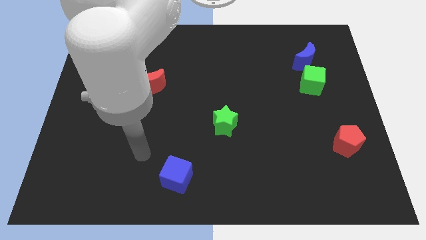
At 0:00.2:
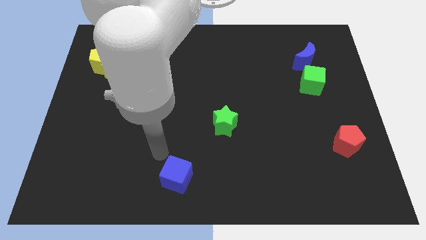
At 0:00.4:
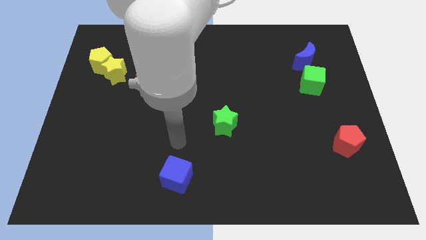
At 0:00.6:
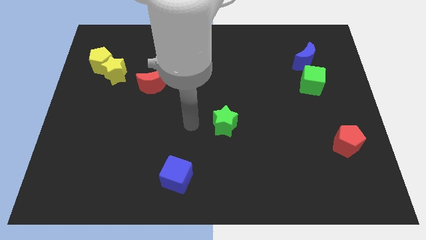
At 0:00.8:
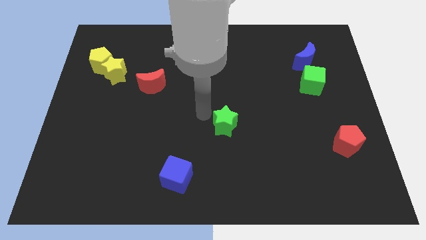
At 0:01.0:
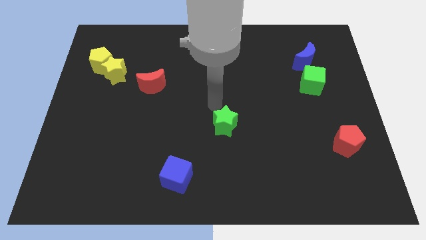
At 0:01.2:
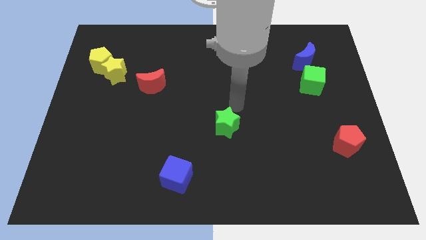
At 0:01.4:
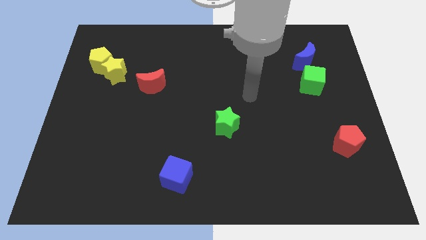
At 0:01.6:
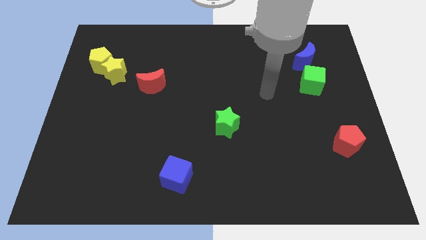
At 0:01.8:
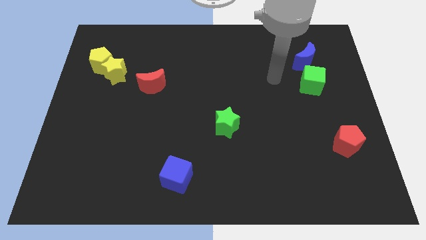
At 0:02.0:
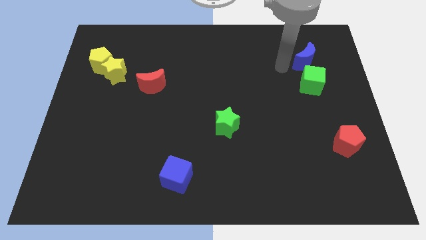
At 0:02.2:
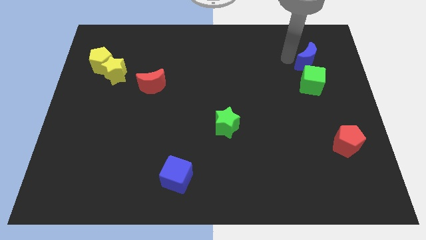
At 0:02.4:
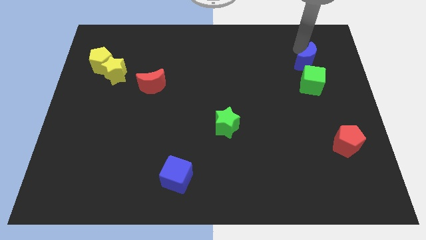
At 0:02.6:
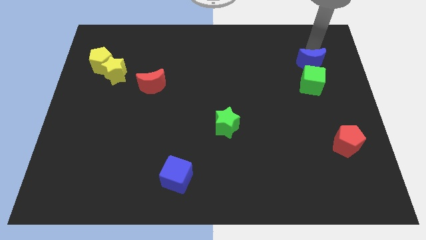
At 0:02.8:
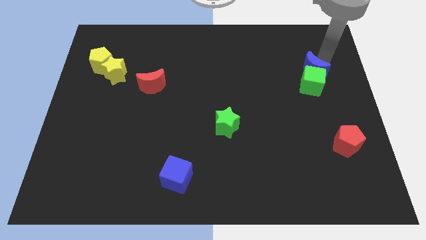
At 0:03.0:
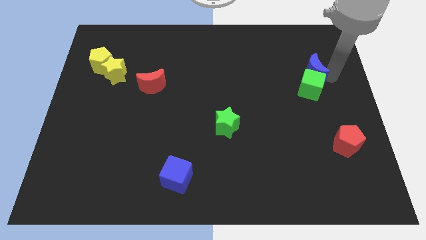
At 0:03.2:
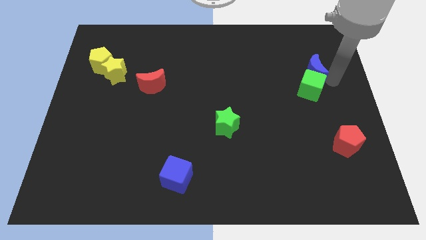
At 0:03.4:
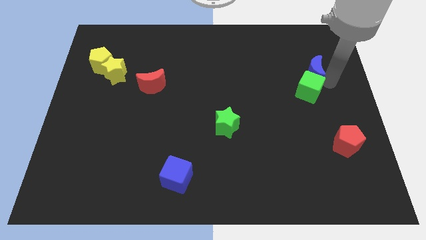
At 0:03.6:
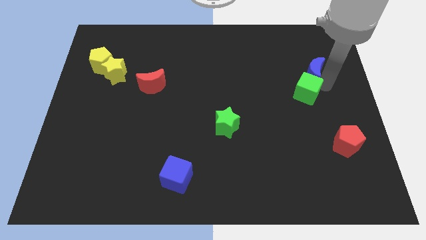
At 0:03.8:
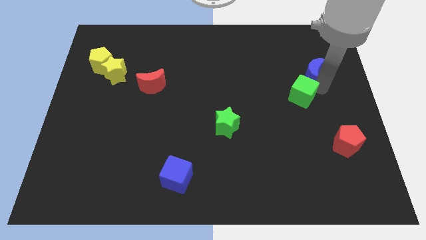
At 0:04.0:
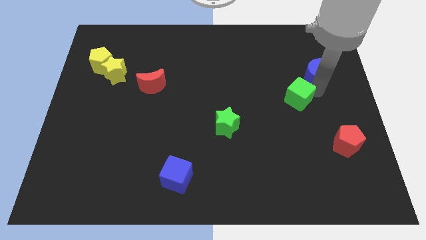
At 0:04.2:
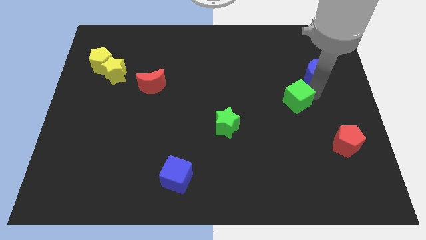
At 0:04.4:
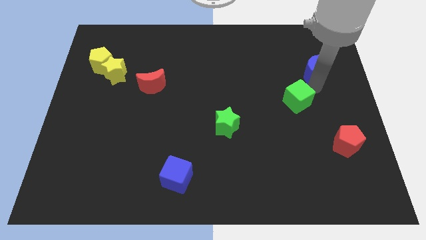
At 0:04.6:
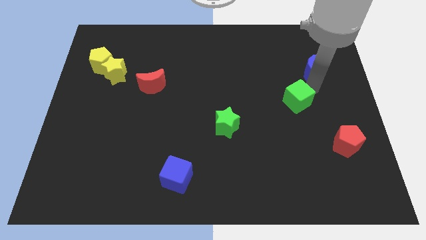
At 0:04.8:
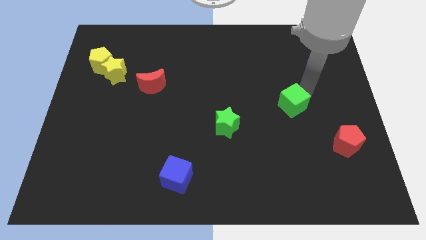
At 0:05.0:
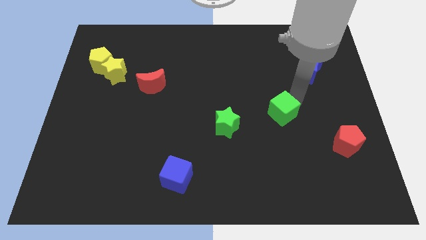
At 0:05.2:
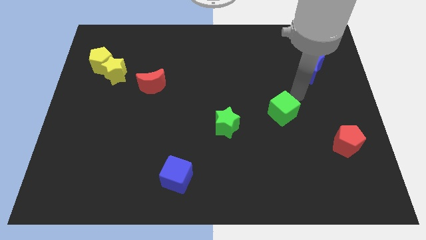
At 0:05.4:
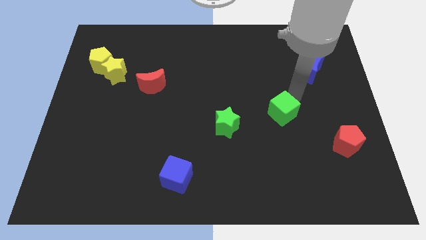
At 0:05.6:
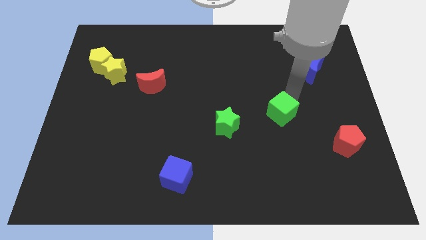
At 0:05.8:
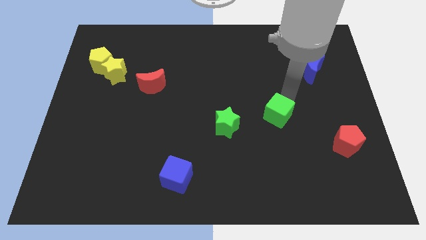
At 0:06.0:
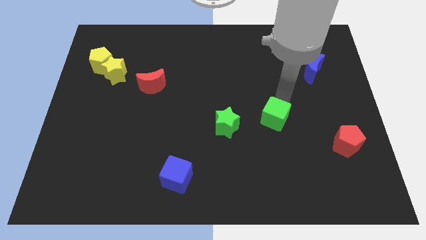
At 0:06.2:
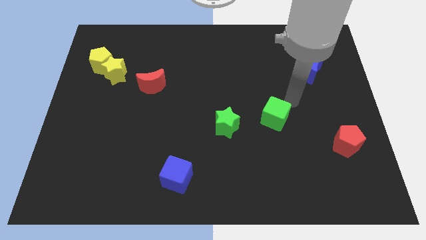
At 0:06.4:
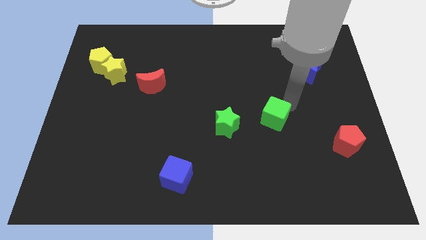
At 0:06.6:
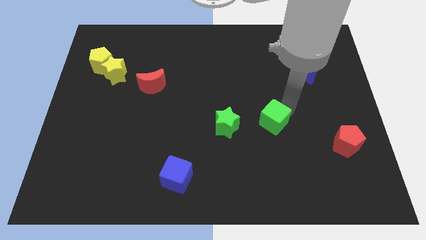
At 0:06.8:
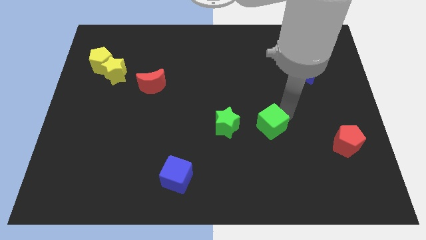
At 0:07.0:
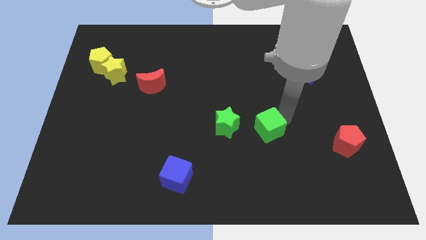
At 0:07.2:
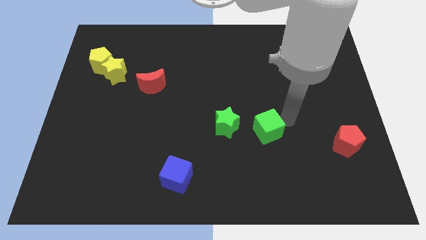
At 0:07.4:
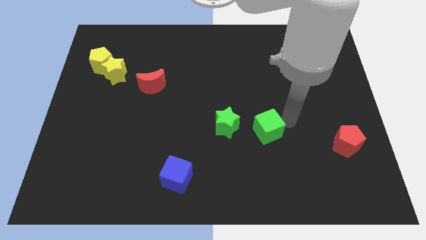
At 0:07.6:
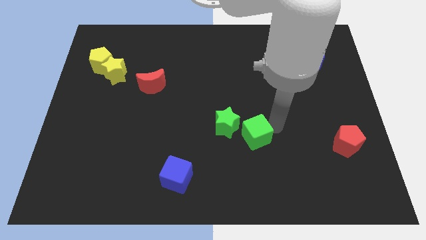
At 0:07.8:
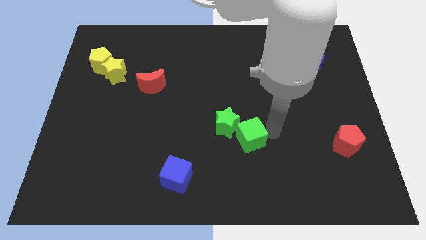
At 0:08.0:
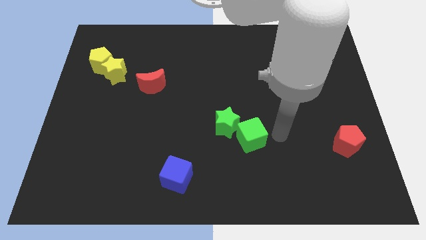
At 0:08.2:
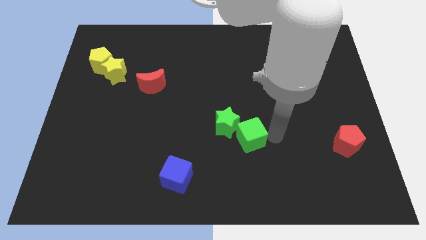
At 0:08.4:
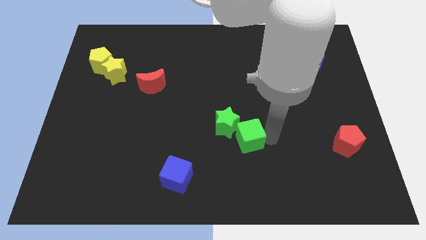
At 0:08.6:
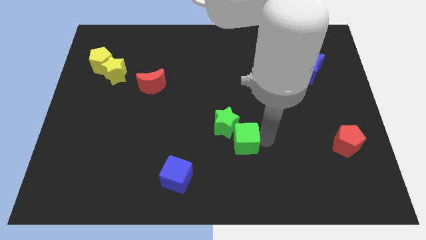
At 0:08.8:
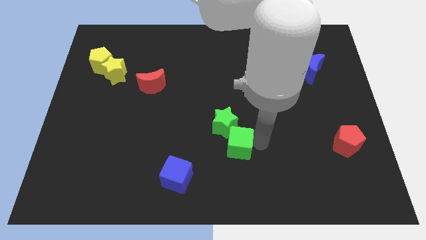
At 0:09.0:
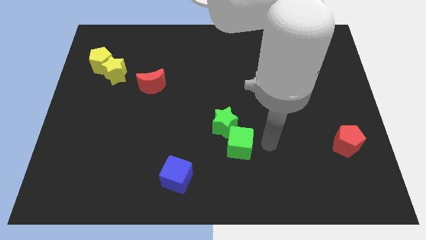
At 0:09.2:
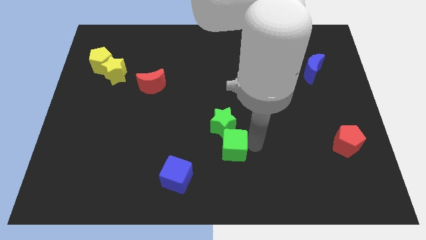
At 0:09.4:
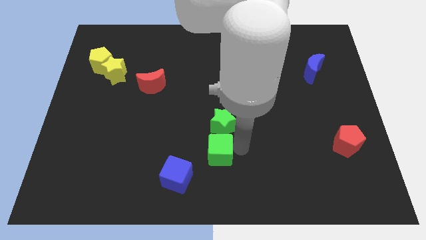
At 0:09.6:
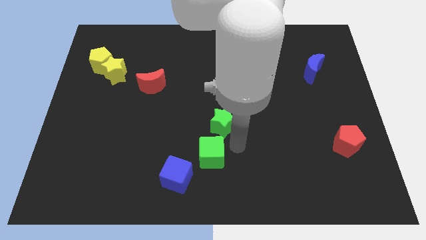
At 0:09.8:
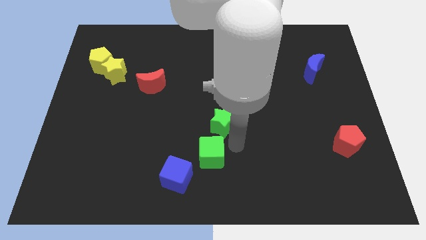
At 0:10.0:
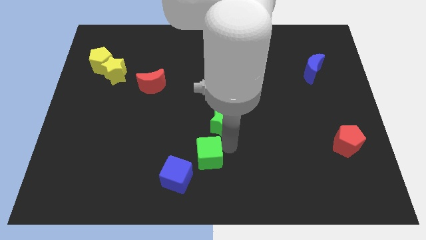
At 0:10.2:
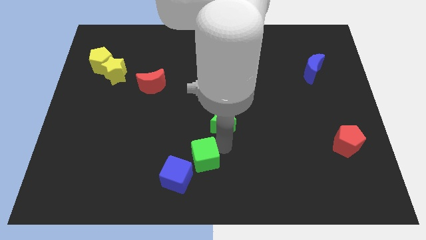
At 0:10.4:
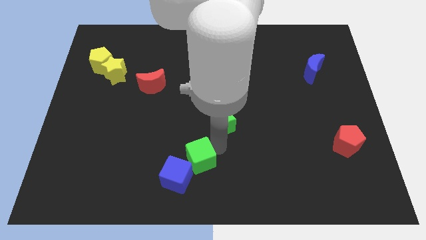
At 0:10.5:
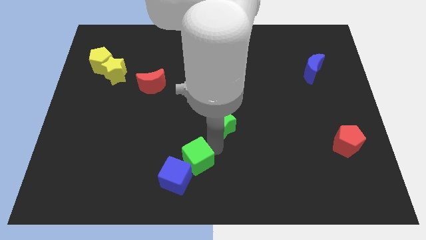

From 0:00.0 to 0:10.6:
put the green cube to the blue cube

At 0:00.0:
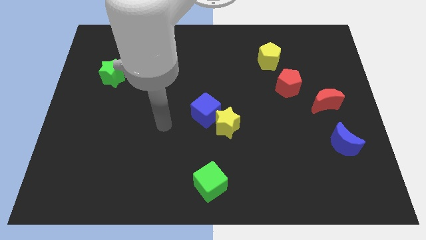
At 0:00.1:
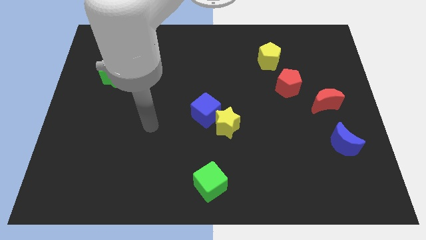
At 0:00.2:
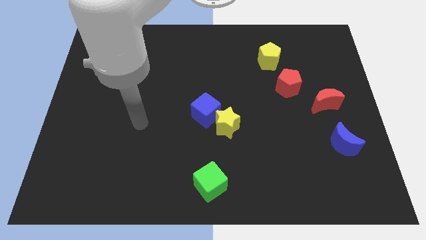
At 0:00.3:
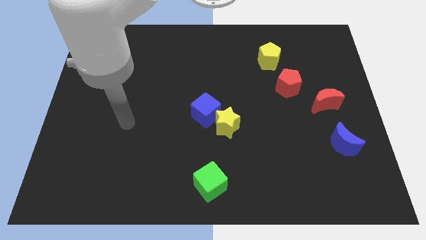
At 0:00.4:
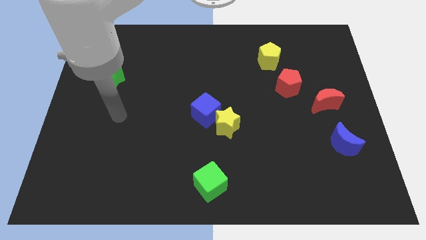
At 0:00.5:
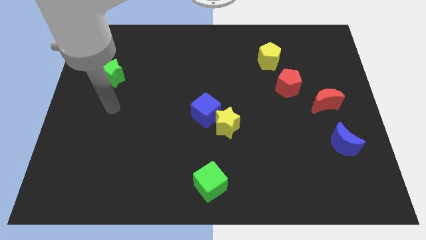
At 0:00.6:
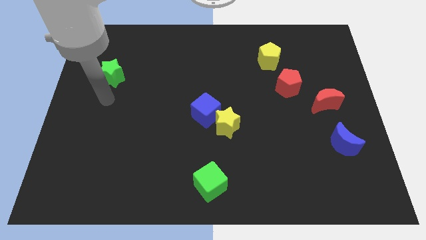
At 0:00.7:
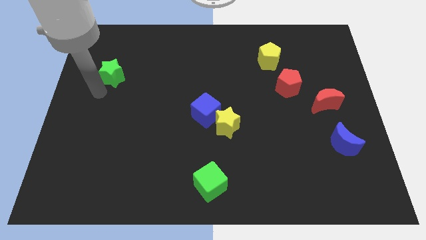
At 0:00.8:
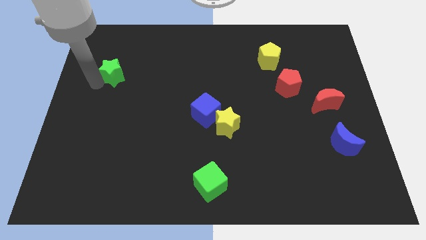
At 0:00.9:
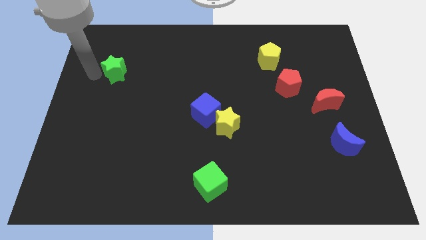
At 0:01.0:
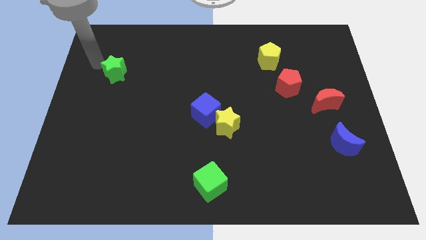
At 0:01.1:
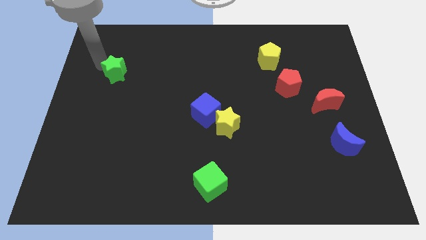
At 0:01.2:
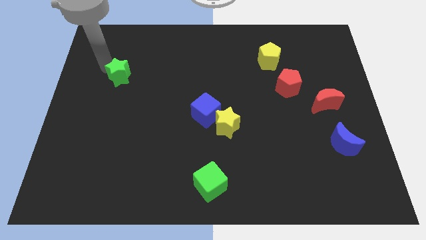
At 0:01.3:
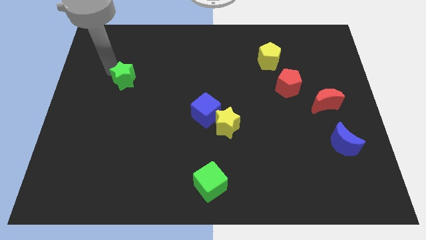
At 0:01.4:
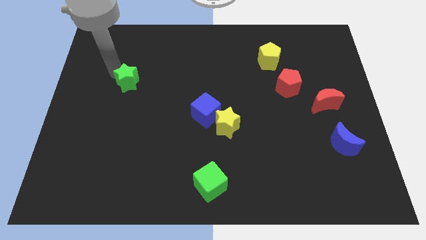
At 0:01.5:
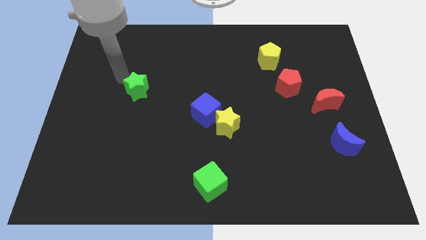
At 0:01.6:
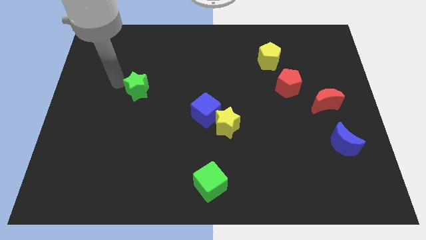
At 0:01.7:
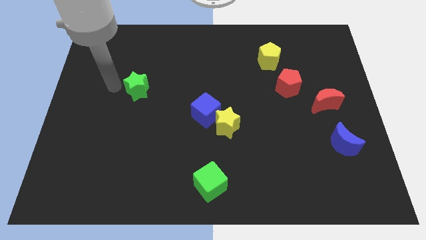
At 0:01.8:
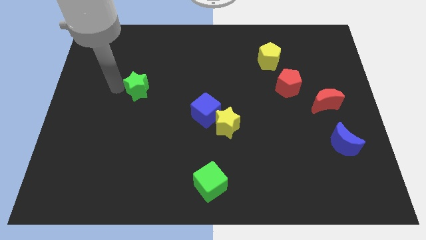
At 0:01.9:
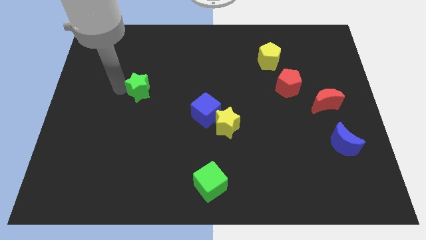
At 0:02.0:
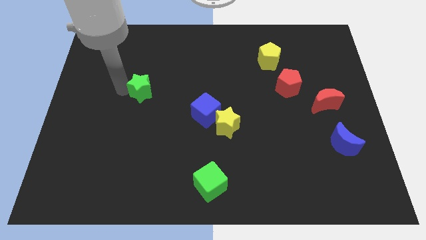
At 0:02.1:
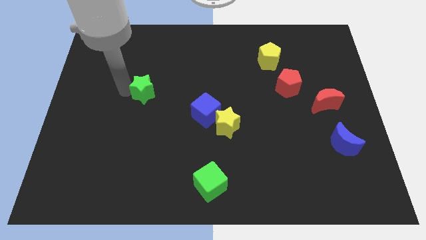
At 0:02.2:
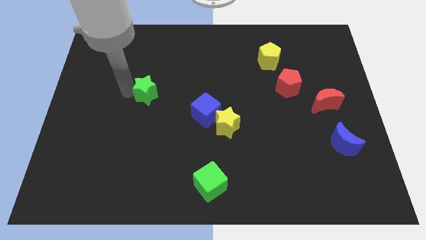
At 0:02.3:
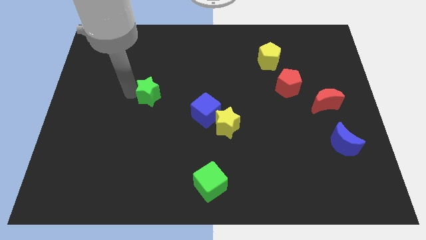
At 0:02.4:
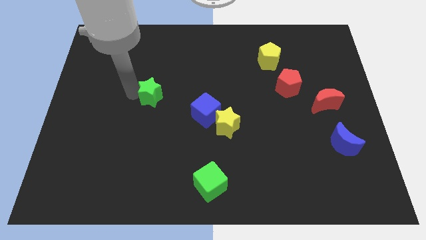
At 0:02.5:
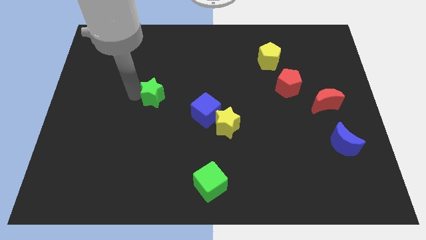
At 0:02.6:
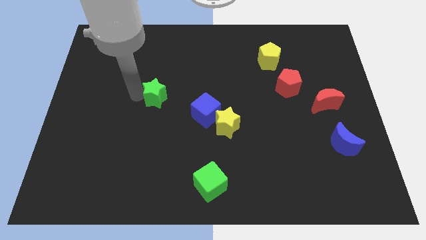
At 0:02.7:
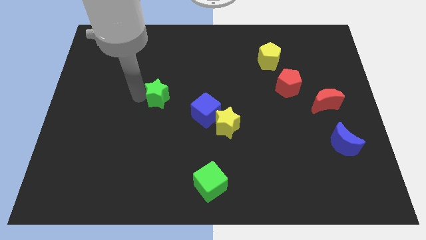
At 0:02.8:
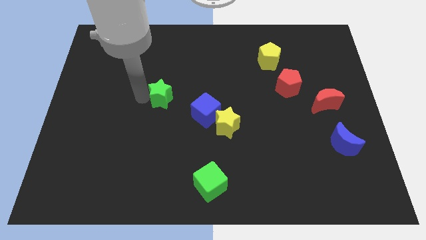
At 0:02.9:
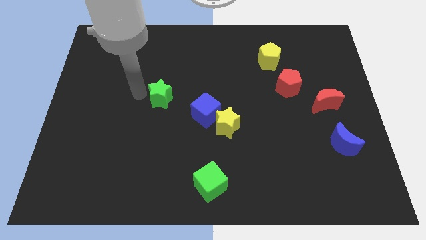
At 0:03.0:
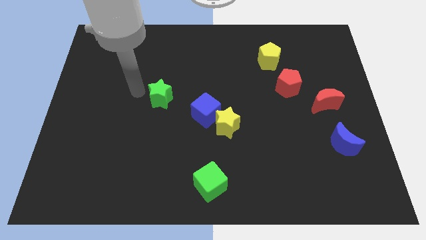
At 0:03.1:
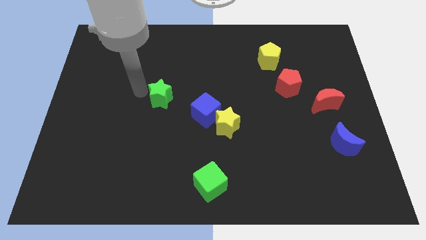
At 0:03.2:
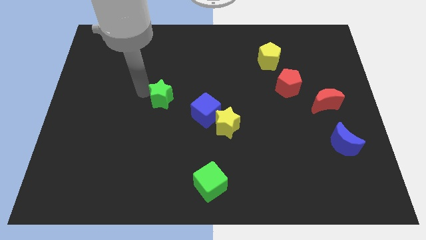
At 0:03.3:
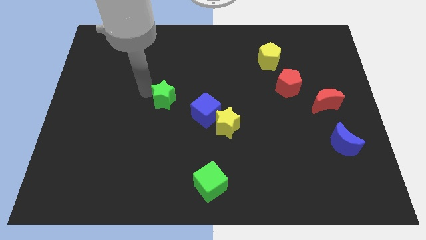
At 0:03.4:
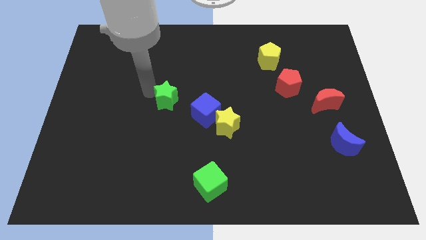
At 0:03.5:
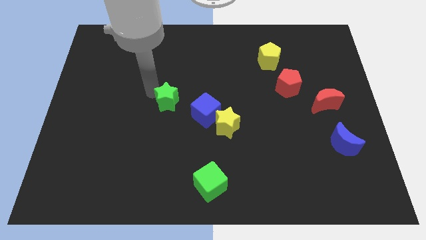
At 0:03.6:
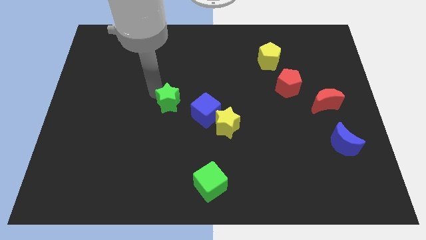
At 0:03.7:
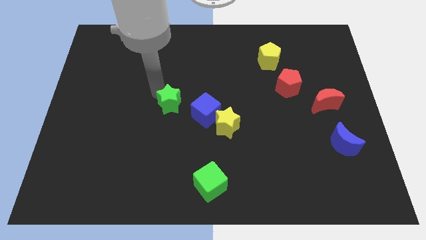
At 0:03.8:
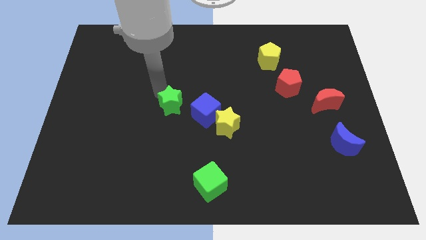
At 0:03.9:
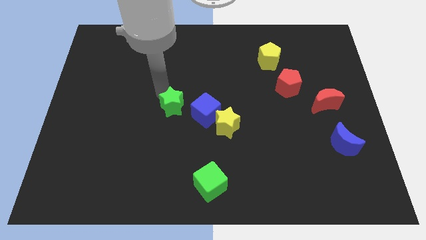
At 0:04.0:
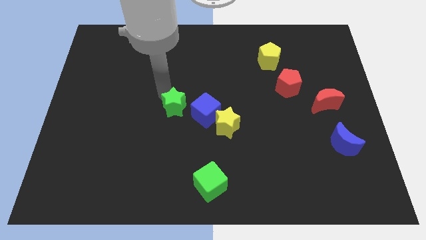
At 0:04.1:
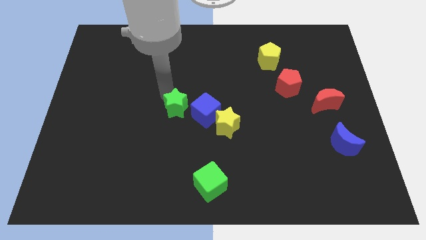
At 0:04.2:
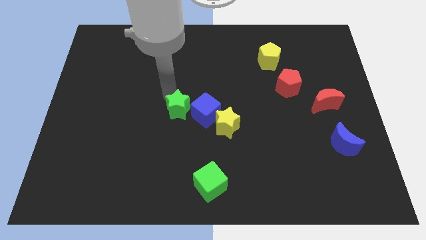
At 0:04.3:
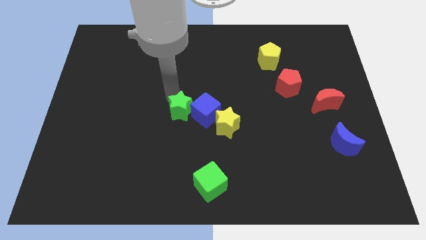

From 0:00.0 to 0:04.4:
move the green star to the blue cube
